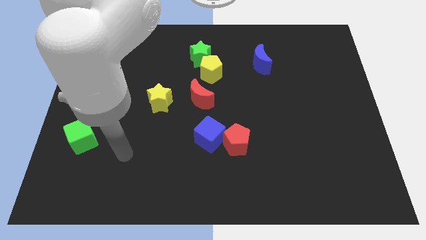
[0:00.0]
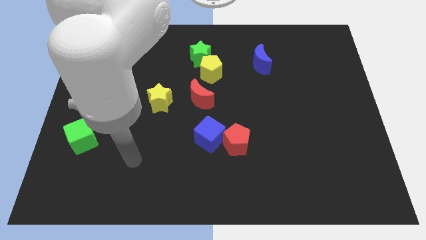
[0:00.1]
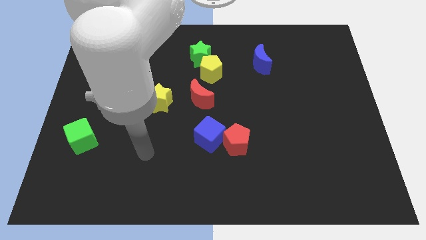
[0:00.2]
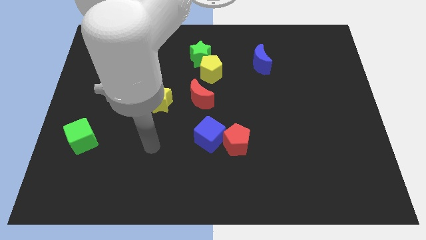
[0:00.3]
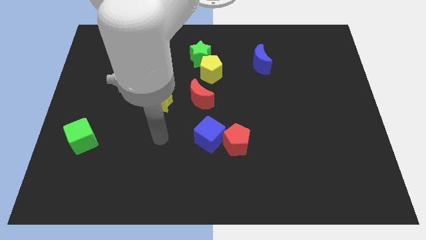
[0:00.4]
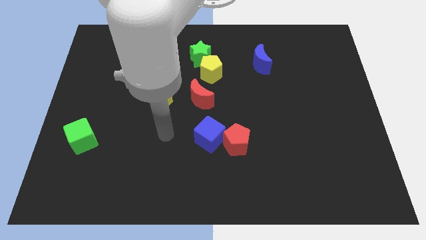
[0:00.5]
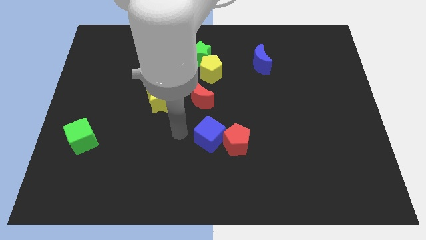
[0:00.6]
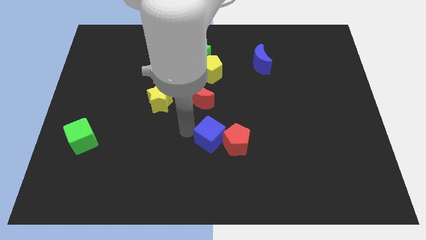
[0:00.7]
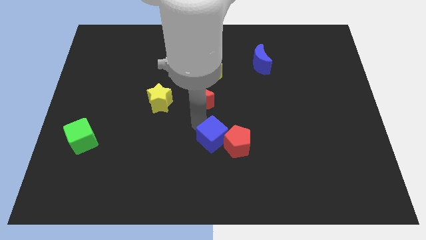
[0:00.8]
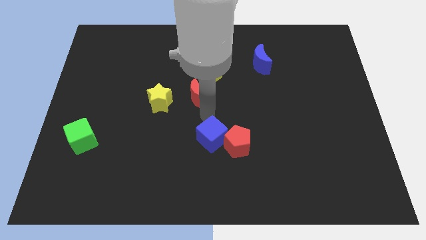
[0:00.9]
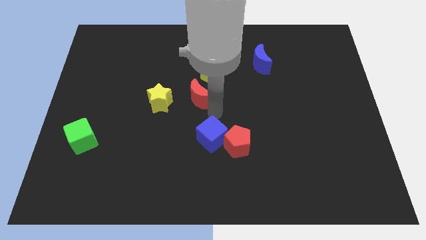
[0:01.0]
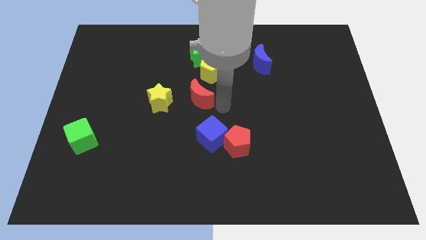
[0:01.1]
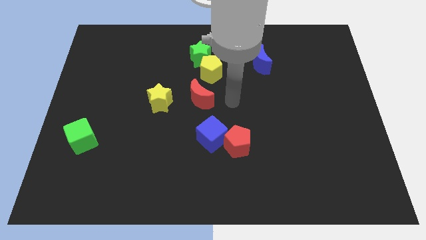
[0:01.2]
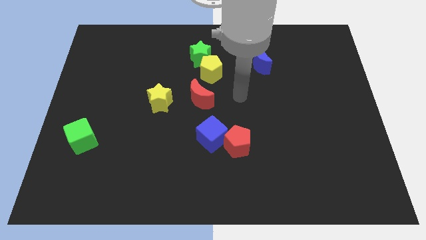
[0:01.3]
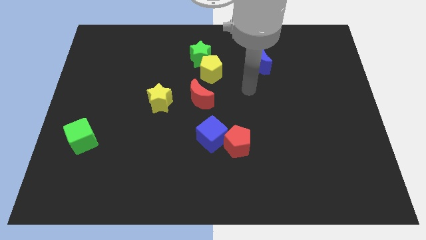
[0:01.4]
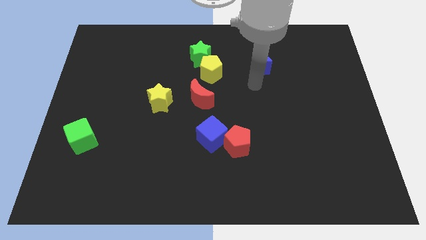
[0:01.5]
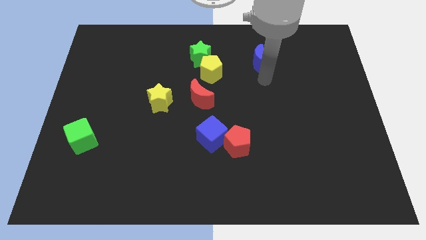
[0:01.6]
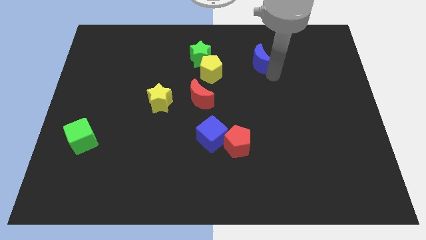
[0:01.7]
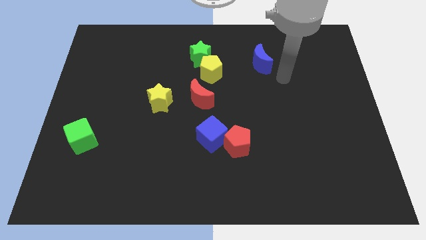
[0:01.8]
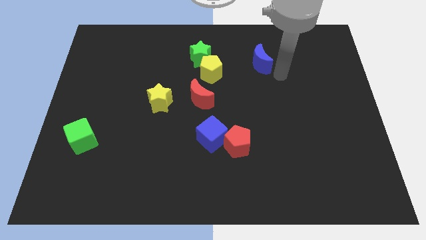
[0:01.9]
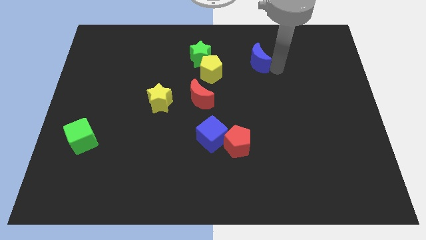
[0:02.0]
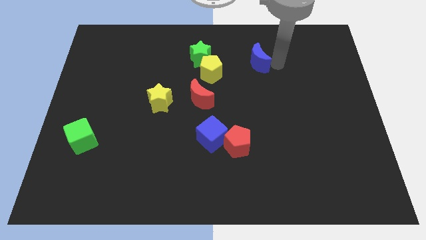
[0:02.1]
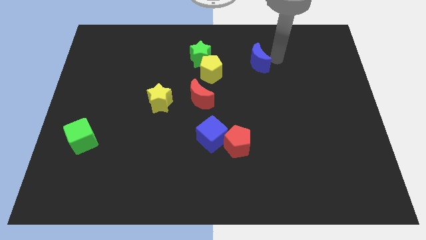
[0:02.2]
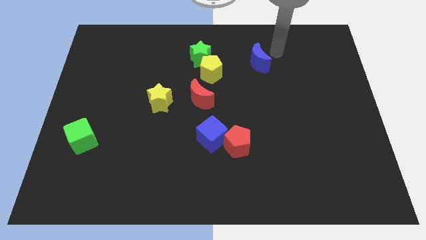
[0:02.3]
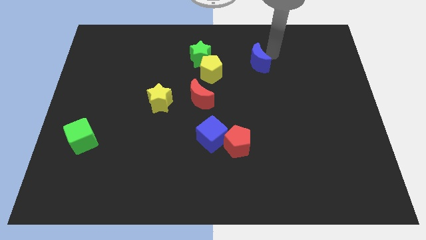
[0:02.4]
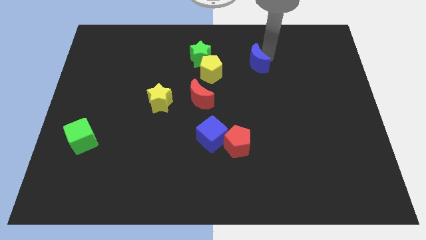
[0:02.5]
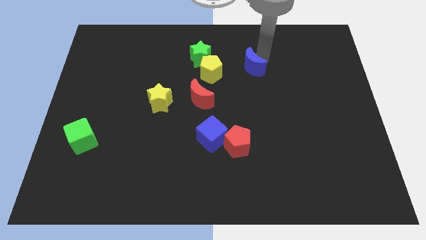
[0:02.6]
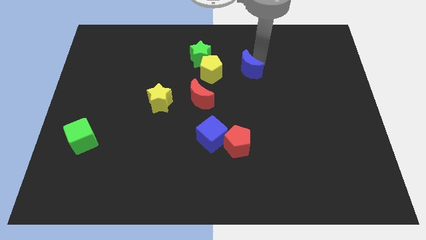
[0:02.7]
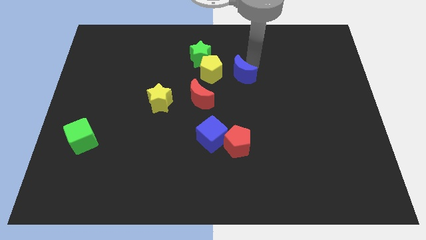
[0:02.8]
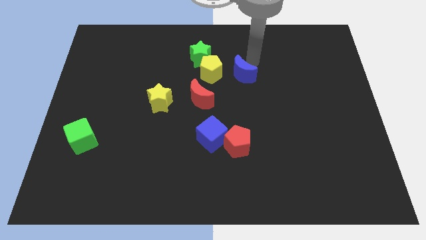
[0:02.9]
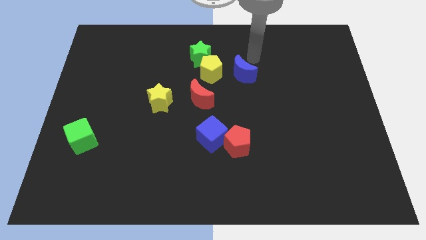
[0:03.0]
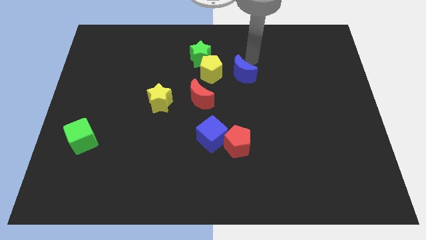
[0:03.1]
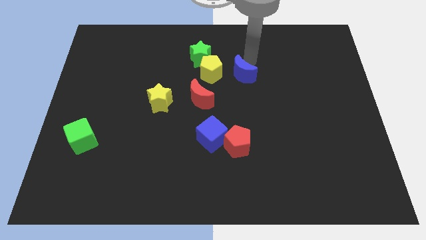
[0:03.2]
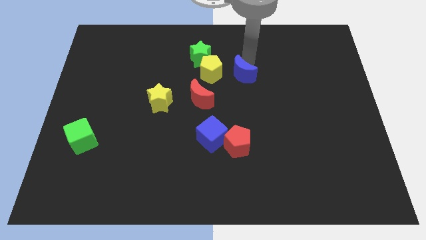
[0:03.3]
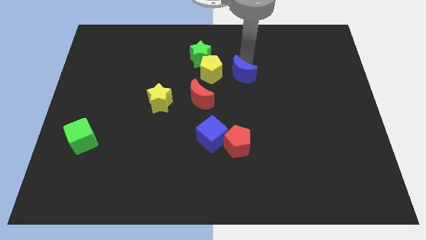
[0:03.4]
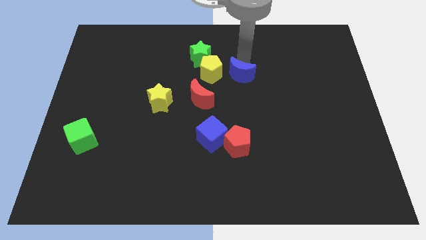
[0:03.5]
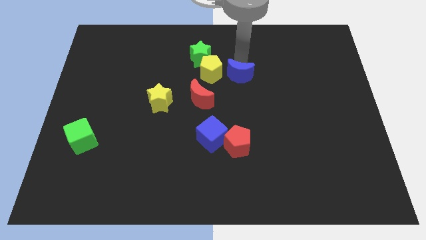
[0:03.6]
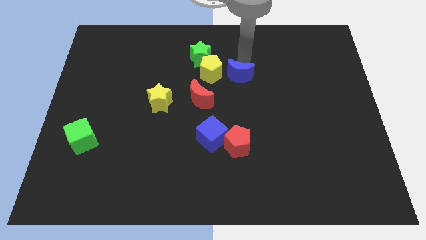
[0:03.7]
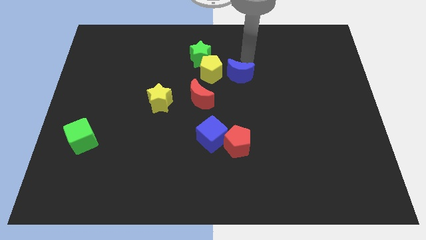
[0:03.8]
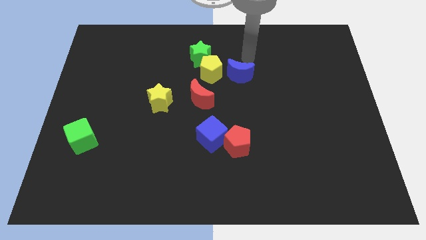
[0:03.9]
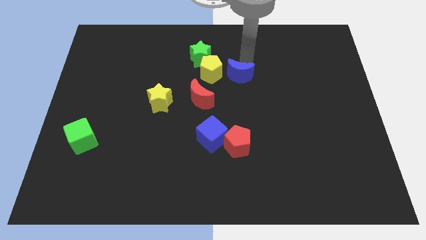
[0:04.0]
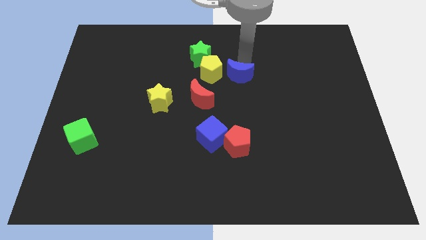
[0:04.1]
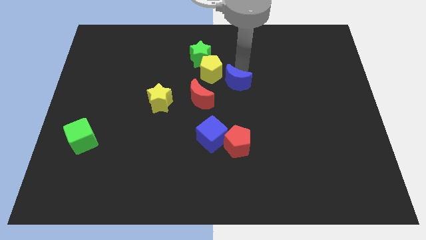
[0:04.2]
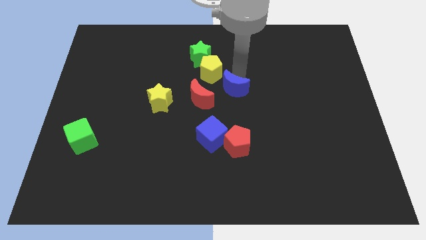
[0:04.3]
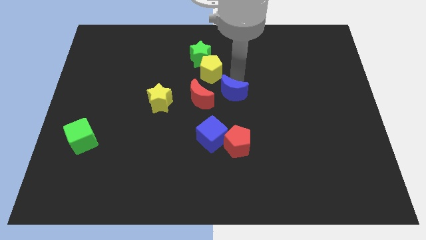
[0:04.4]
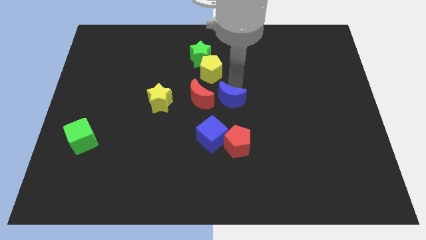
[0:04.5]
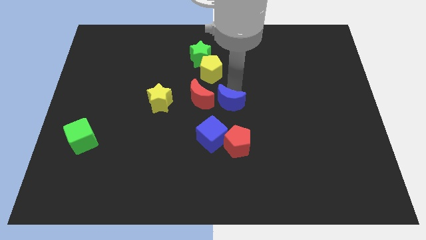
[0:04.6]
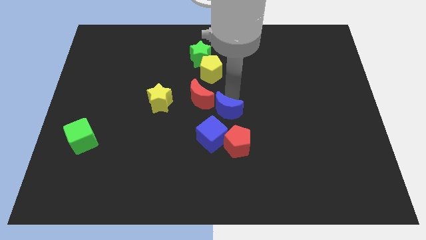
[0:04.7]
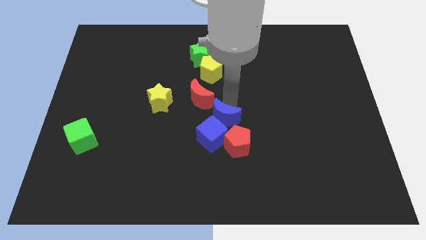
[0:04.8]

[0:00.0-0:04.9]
move the blue moon towards the blue cube

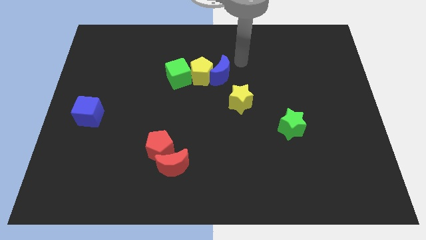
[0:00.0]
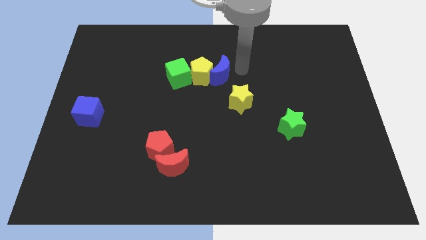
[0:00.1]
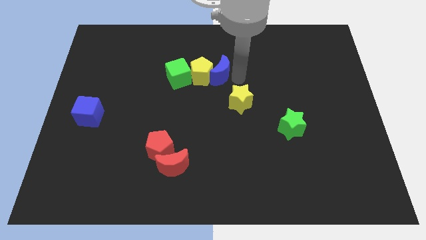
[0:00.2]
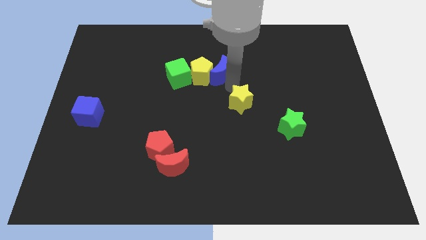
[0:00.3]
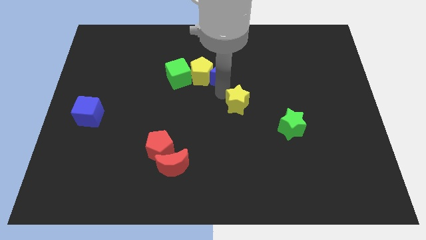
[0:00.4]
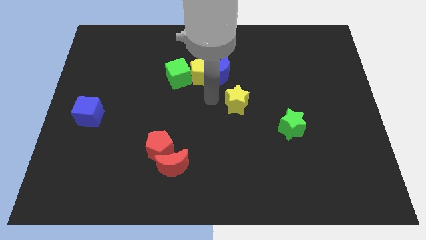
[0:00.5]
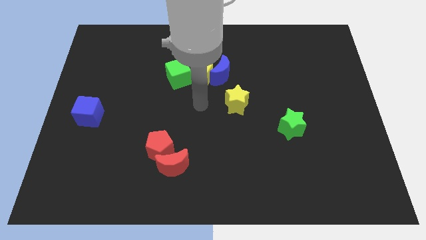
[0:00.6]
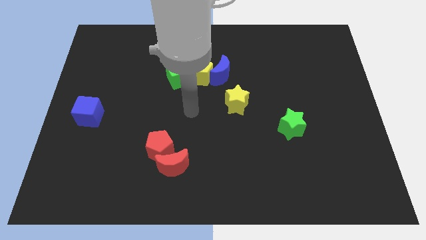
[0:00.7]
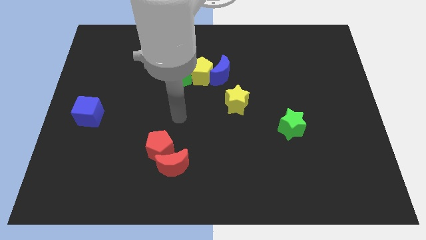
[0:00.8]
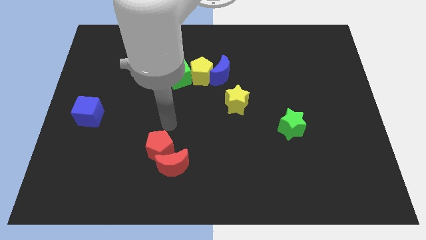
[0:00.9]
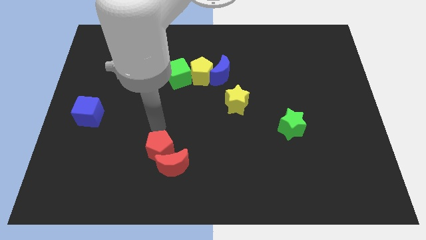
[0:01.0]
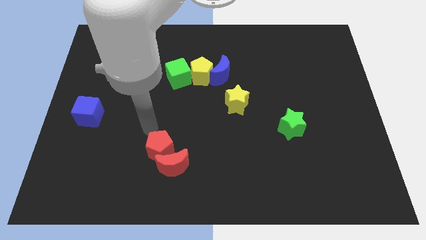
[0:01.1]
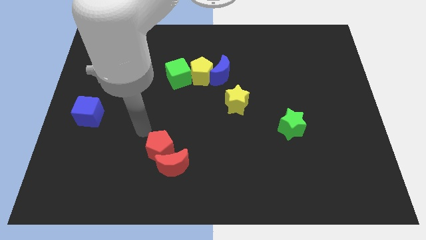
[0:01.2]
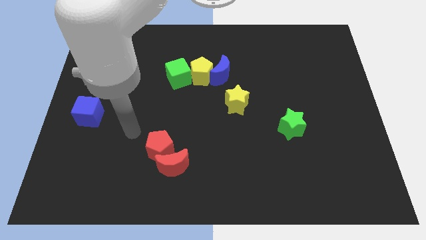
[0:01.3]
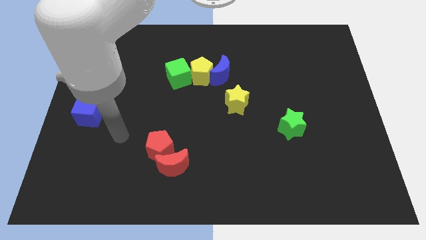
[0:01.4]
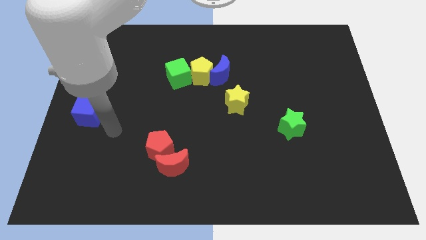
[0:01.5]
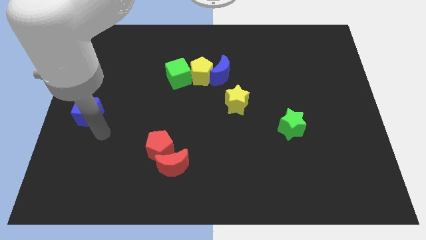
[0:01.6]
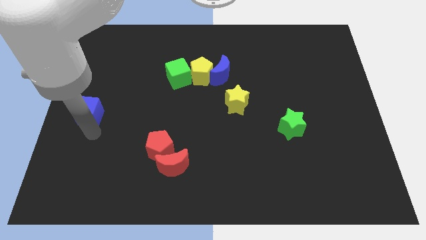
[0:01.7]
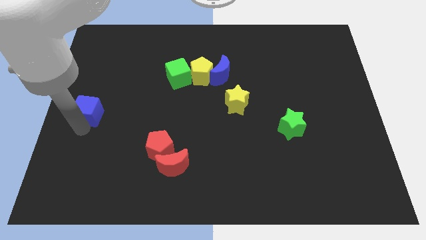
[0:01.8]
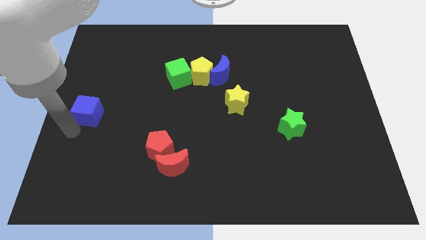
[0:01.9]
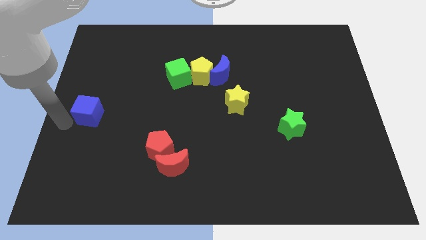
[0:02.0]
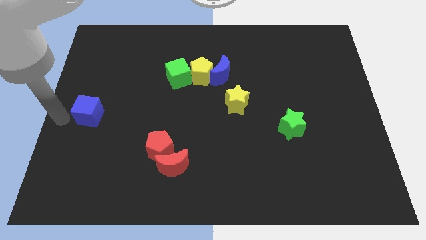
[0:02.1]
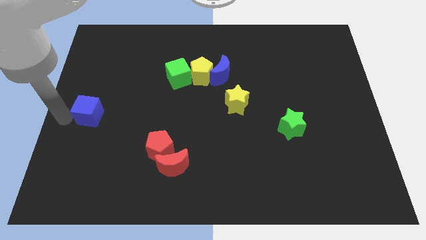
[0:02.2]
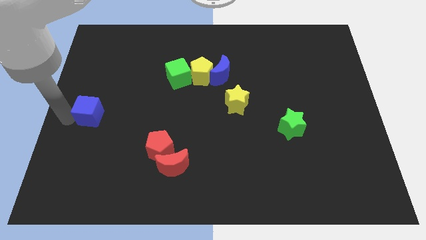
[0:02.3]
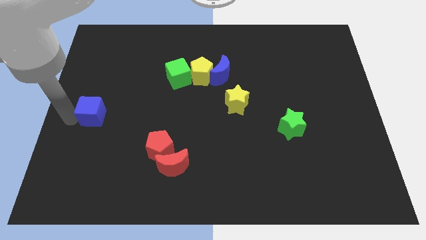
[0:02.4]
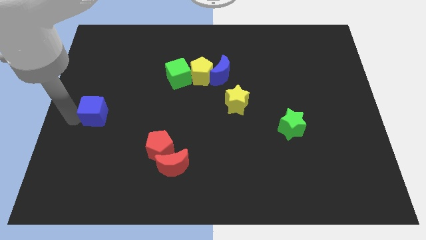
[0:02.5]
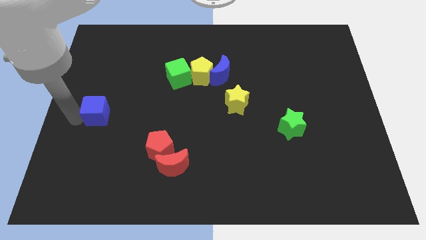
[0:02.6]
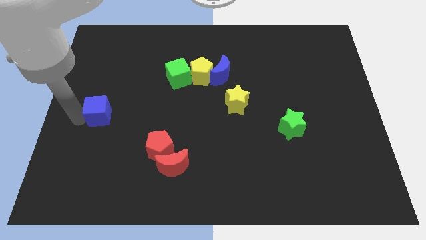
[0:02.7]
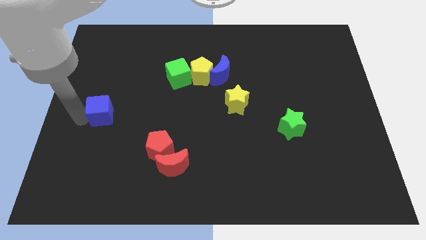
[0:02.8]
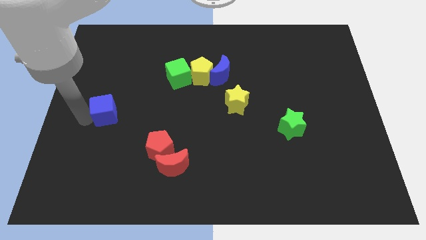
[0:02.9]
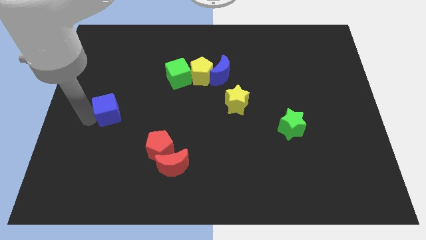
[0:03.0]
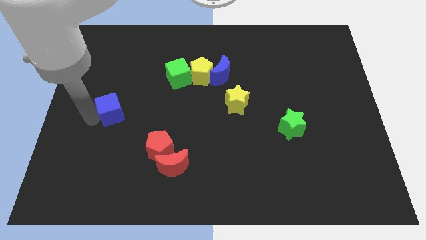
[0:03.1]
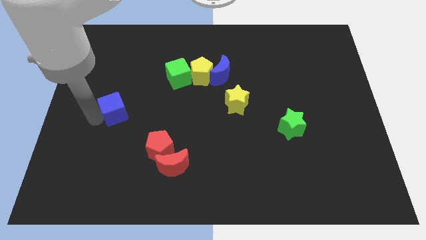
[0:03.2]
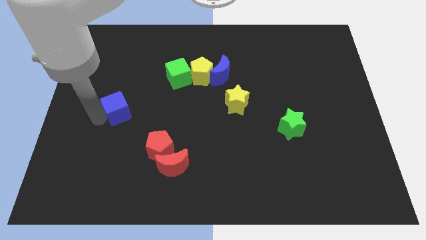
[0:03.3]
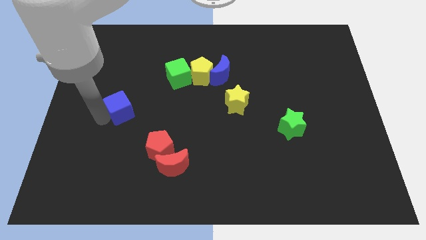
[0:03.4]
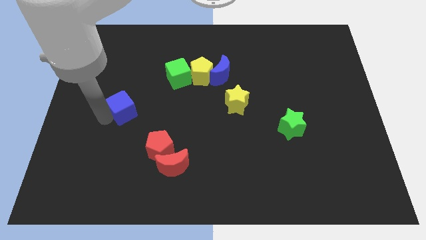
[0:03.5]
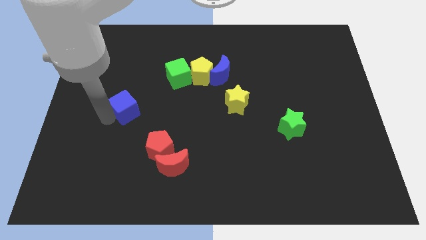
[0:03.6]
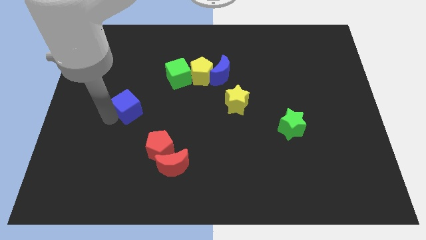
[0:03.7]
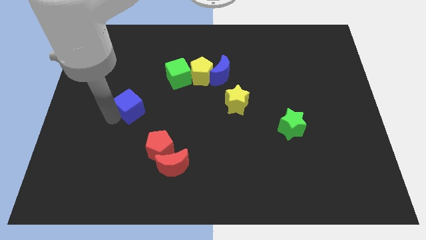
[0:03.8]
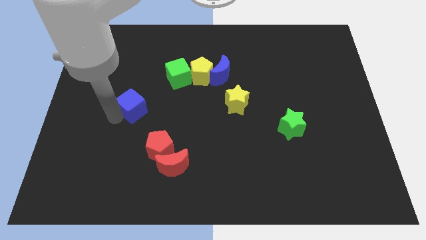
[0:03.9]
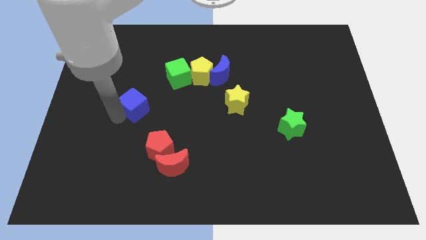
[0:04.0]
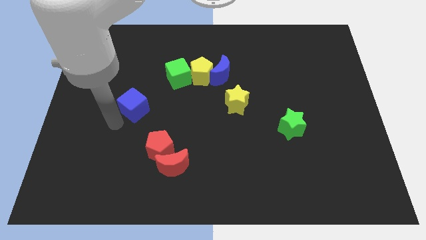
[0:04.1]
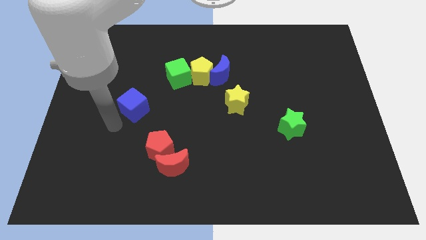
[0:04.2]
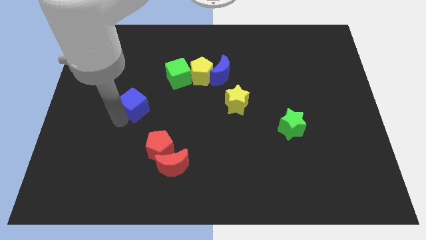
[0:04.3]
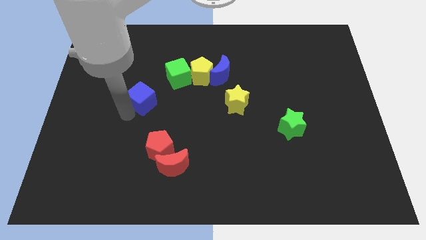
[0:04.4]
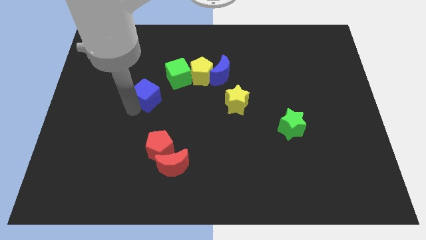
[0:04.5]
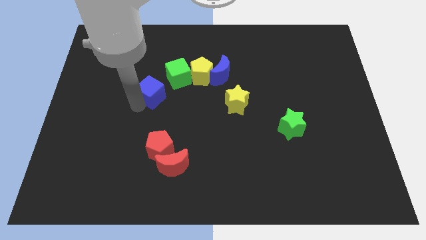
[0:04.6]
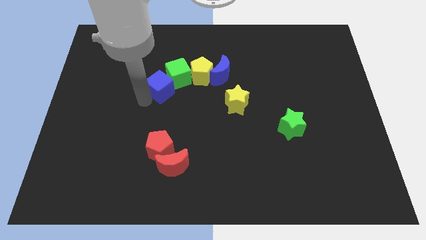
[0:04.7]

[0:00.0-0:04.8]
move the blue cube to the green cube
